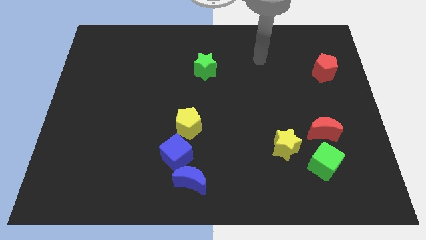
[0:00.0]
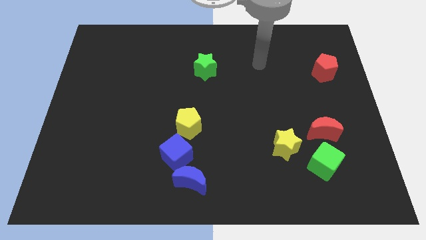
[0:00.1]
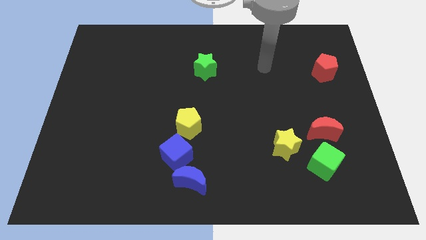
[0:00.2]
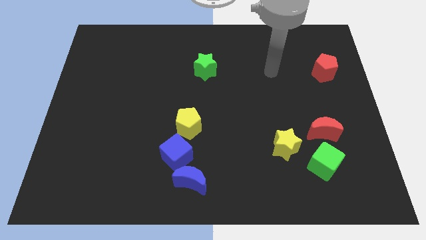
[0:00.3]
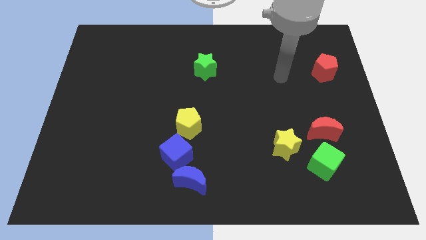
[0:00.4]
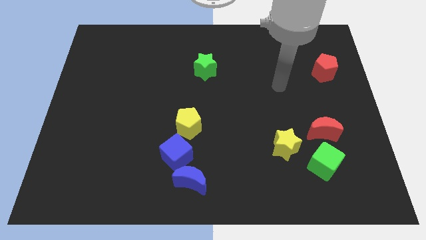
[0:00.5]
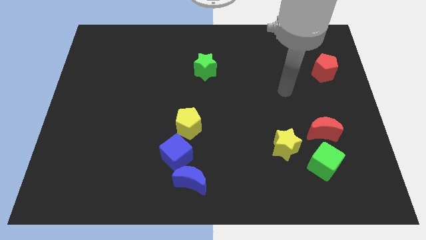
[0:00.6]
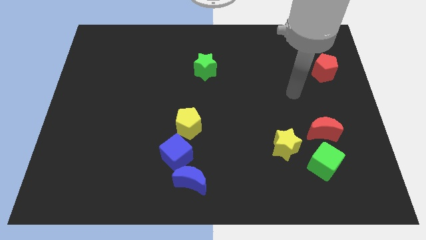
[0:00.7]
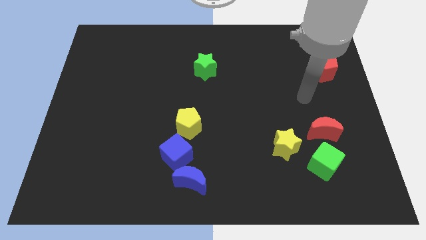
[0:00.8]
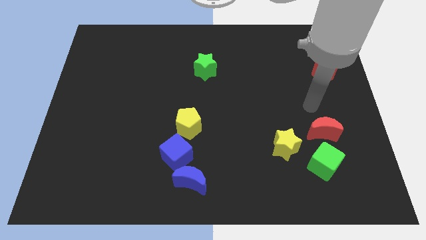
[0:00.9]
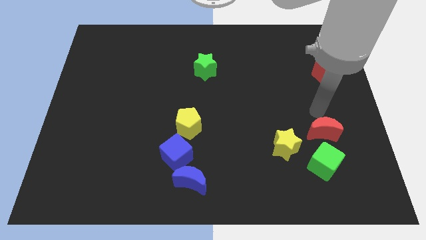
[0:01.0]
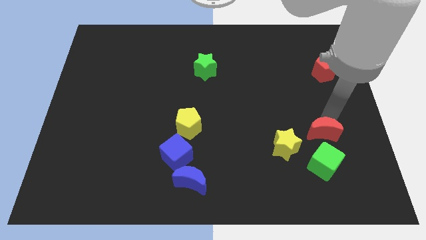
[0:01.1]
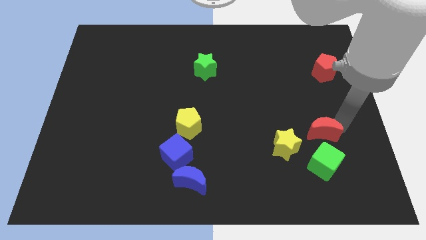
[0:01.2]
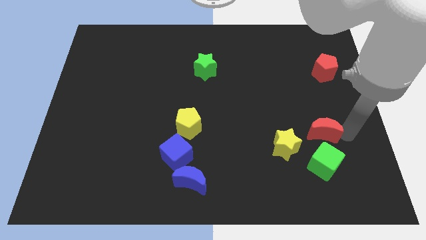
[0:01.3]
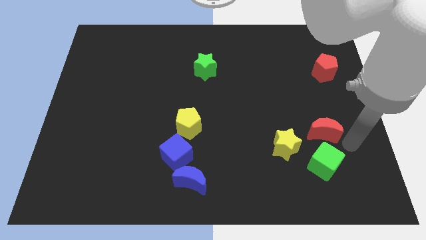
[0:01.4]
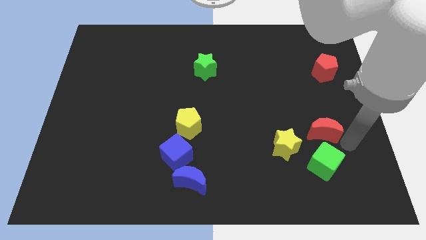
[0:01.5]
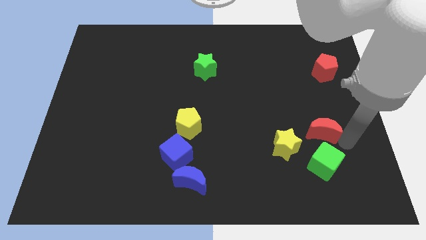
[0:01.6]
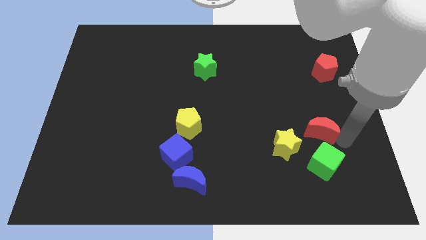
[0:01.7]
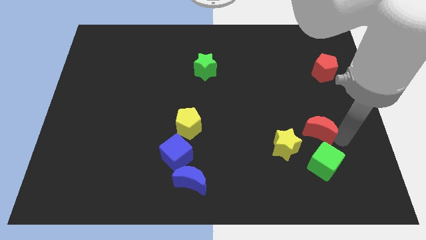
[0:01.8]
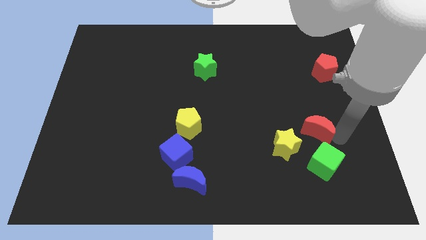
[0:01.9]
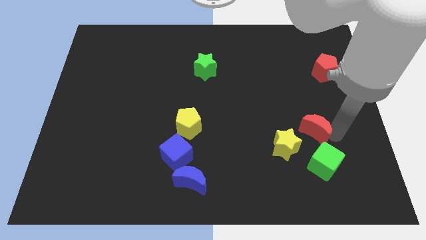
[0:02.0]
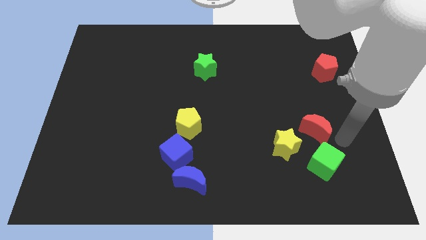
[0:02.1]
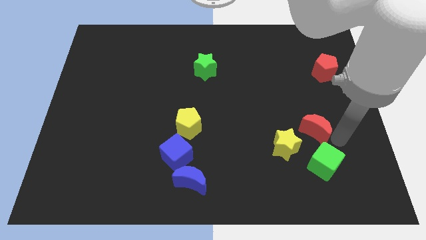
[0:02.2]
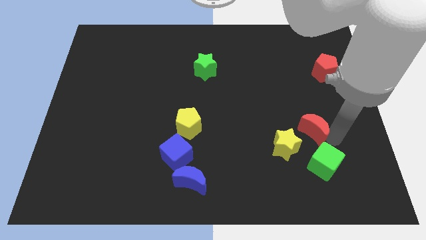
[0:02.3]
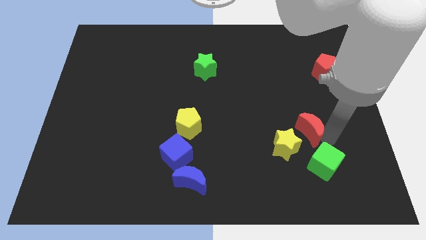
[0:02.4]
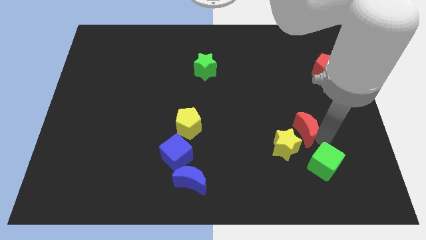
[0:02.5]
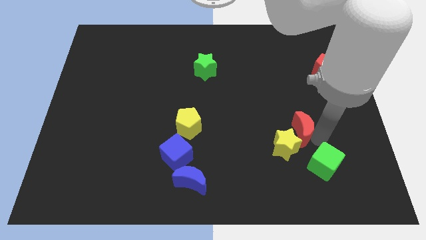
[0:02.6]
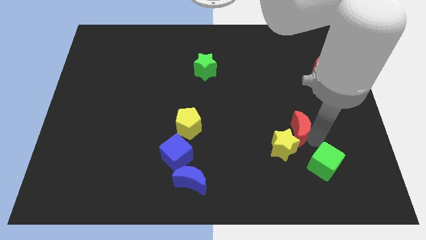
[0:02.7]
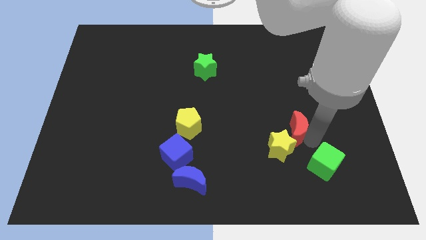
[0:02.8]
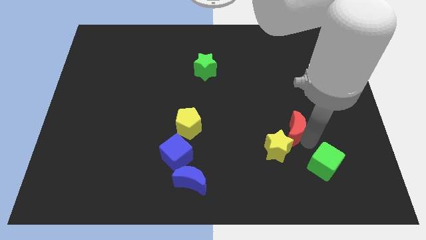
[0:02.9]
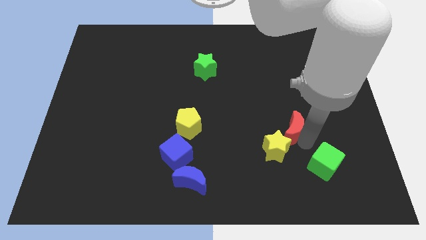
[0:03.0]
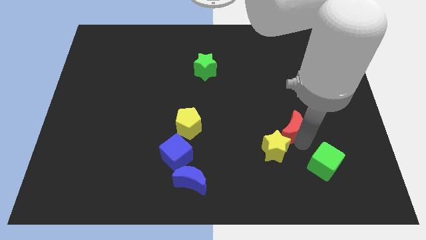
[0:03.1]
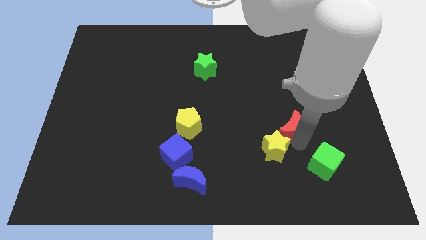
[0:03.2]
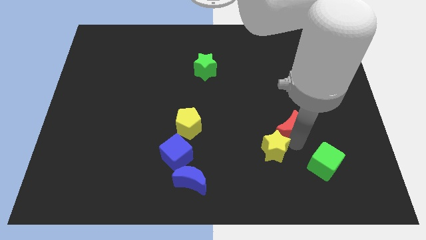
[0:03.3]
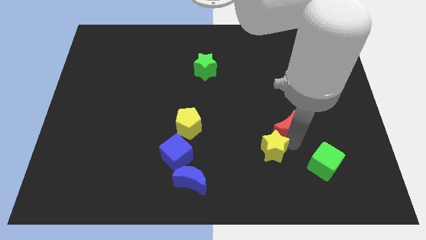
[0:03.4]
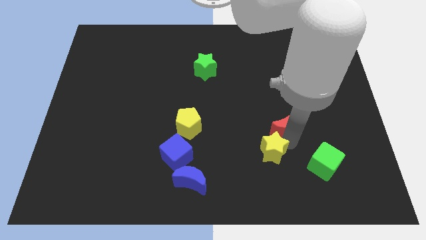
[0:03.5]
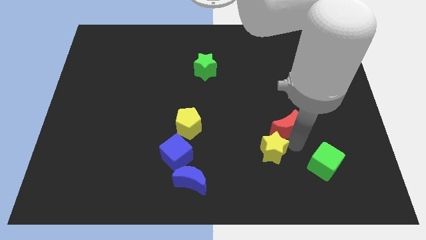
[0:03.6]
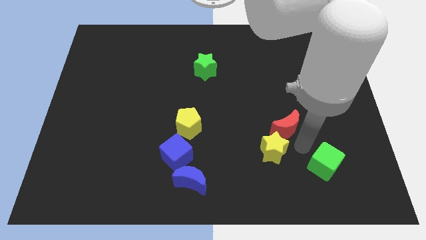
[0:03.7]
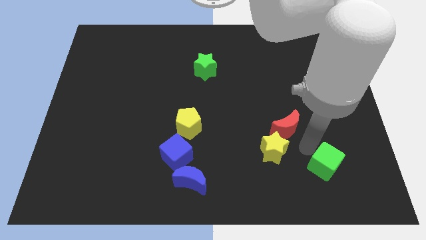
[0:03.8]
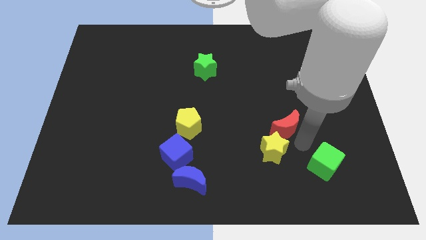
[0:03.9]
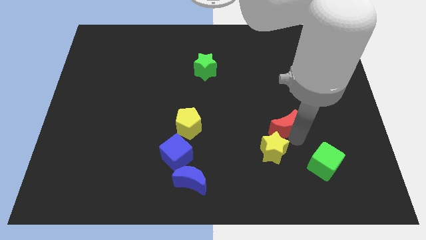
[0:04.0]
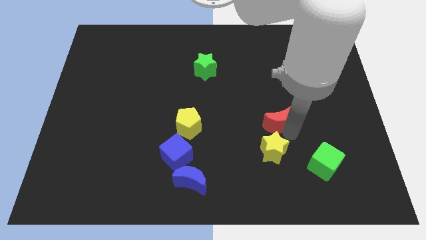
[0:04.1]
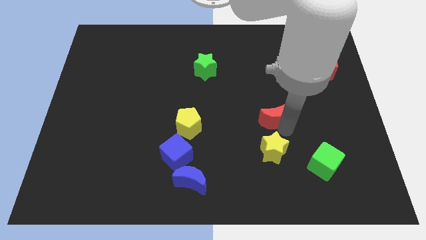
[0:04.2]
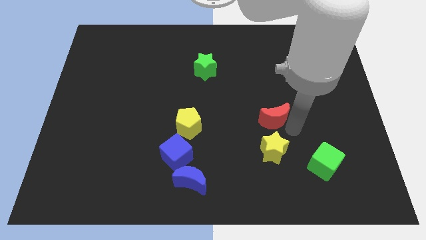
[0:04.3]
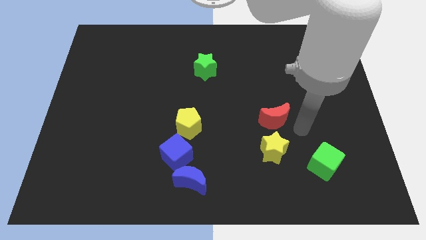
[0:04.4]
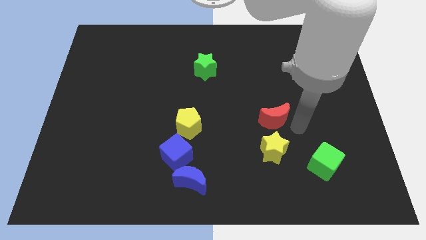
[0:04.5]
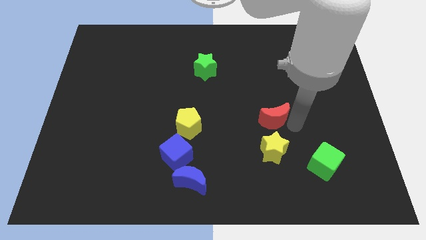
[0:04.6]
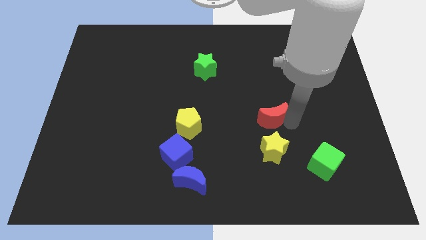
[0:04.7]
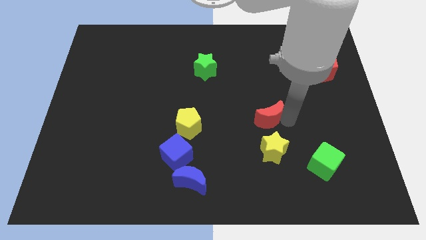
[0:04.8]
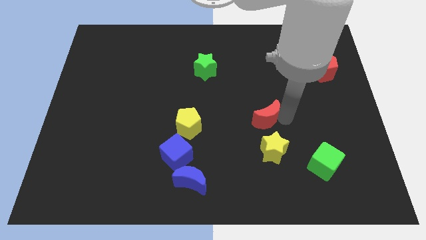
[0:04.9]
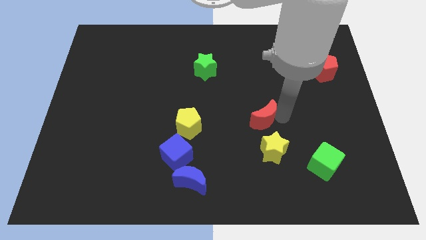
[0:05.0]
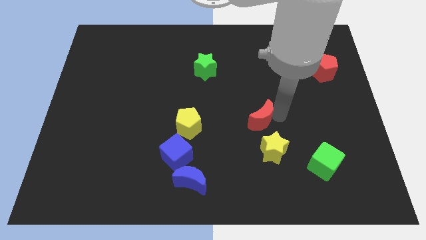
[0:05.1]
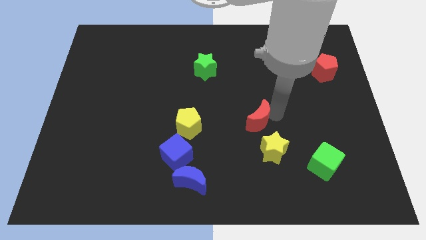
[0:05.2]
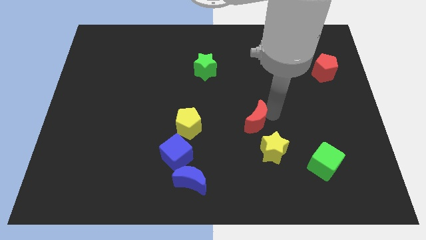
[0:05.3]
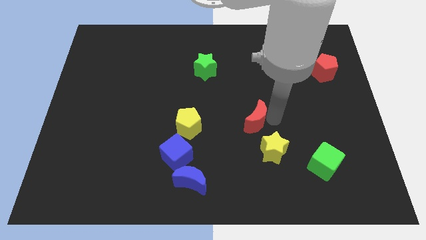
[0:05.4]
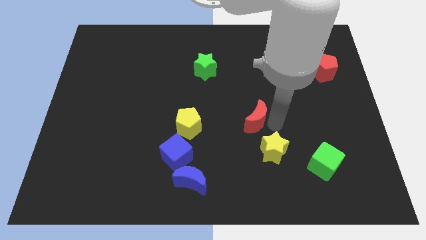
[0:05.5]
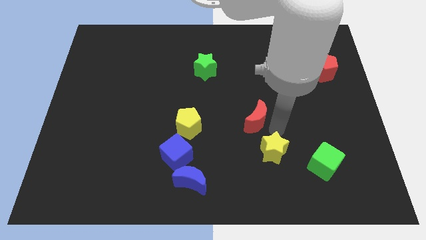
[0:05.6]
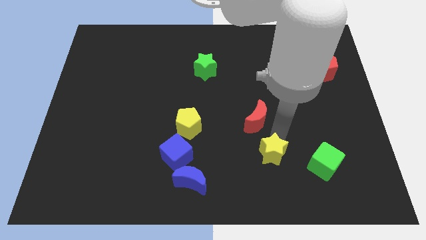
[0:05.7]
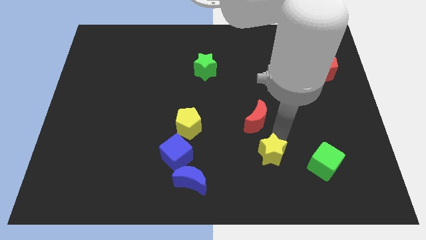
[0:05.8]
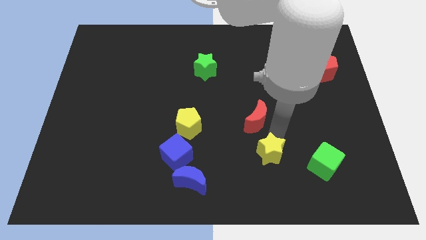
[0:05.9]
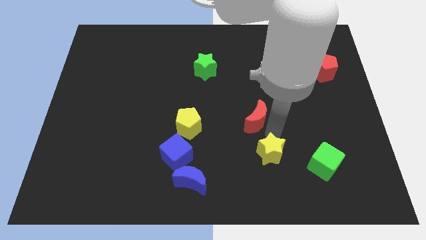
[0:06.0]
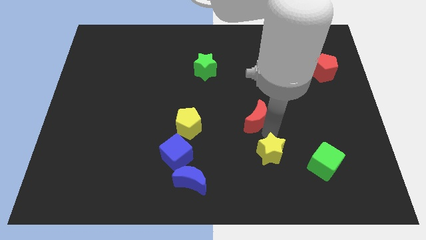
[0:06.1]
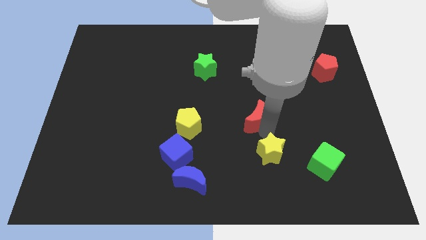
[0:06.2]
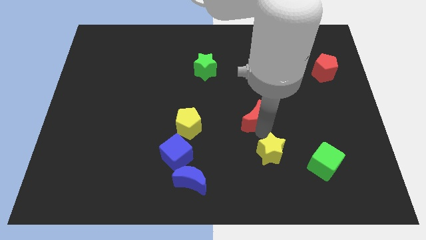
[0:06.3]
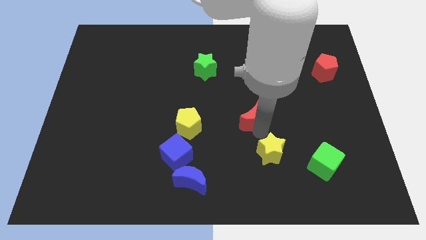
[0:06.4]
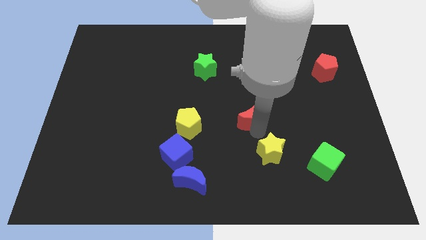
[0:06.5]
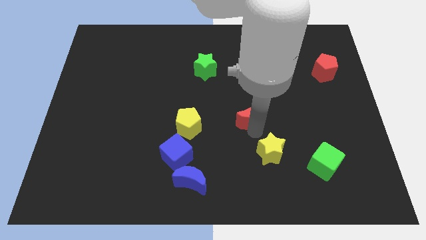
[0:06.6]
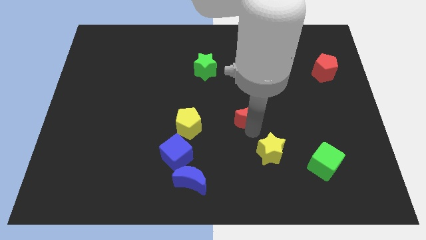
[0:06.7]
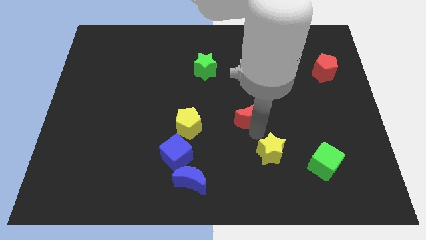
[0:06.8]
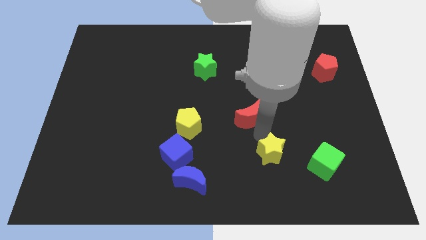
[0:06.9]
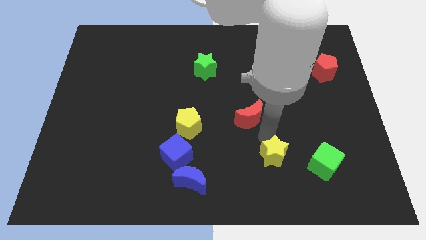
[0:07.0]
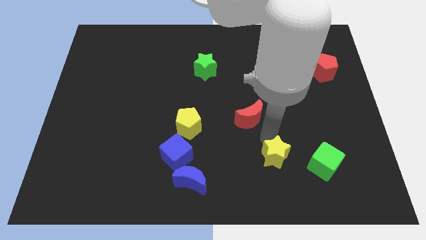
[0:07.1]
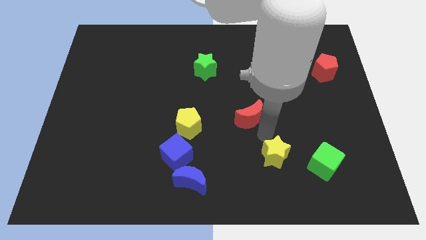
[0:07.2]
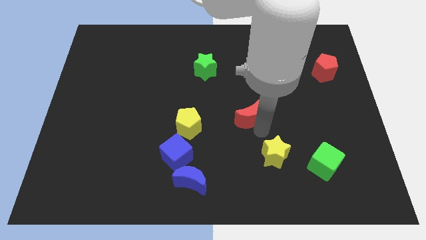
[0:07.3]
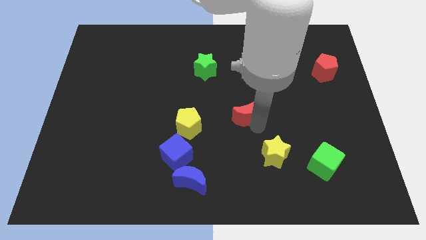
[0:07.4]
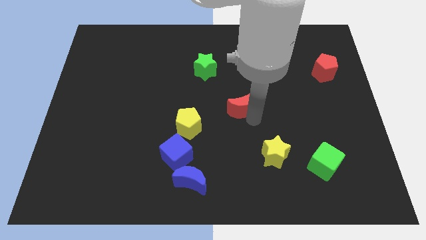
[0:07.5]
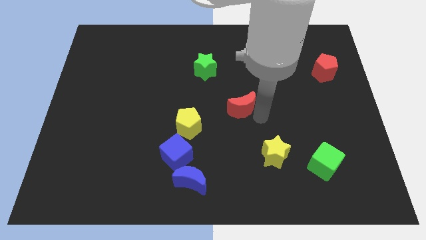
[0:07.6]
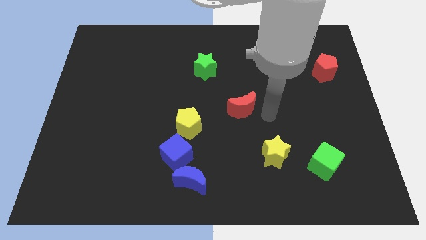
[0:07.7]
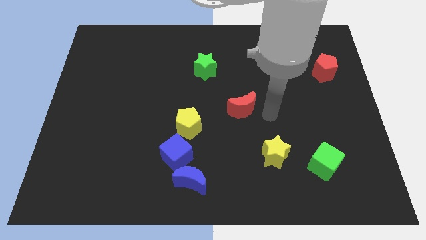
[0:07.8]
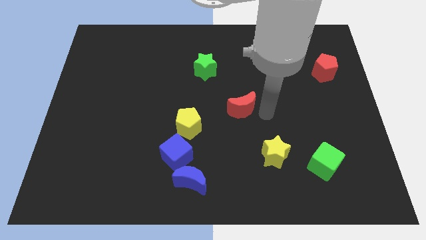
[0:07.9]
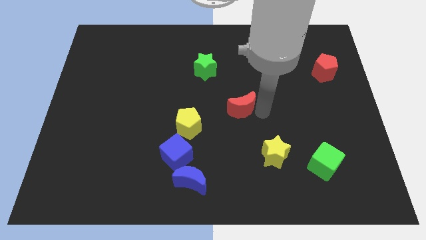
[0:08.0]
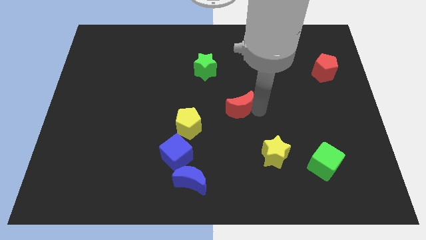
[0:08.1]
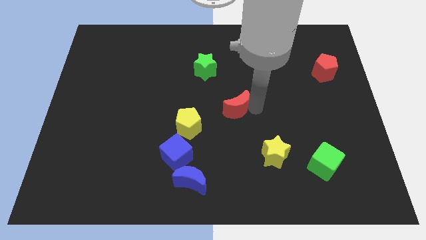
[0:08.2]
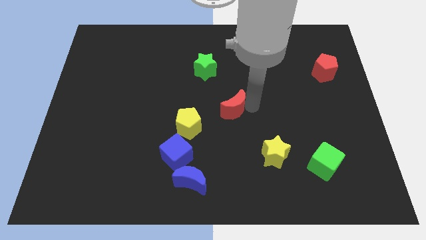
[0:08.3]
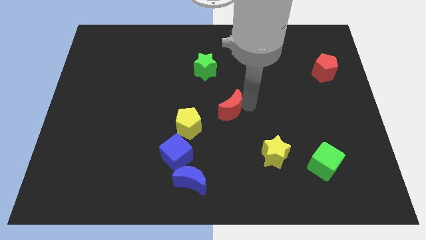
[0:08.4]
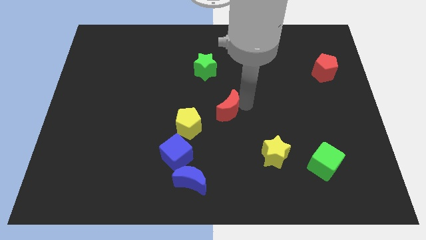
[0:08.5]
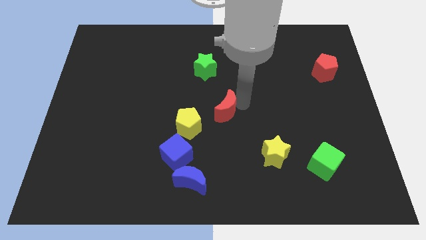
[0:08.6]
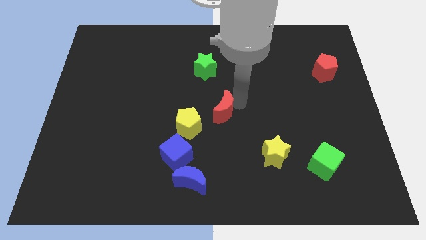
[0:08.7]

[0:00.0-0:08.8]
push the red moon below the green star
